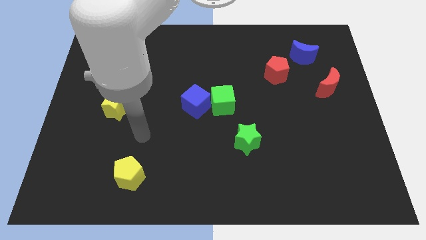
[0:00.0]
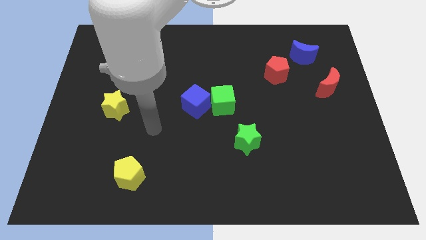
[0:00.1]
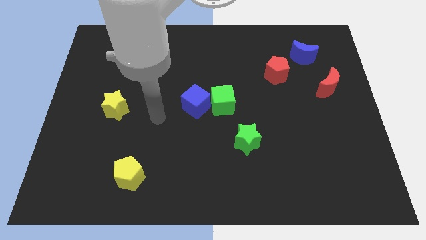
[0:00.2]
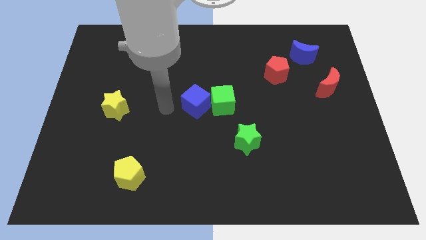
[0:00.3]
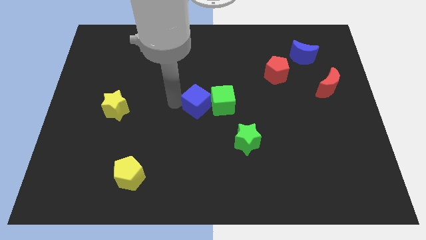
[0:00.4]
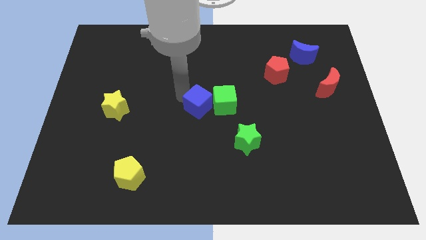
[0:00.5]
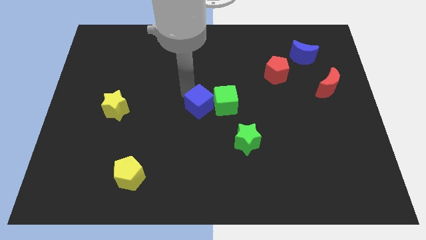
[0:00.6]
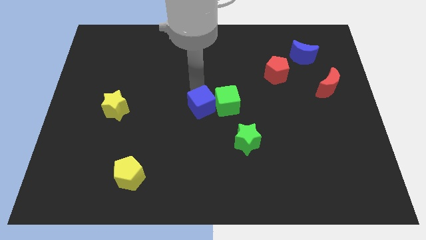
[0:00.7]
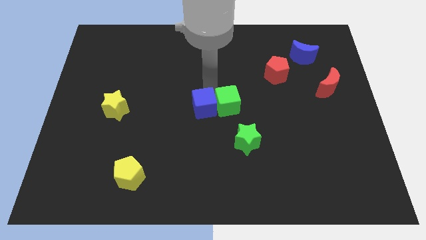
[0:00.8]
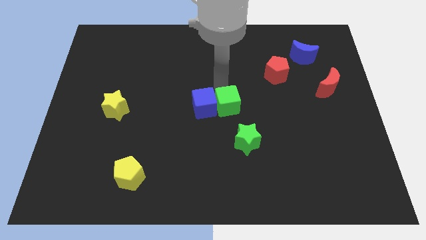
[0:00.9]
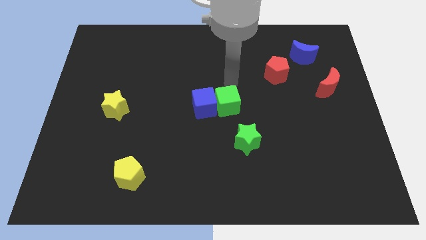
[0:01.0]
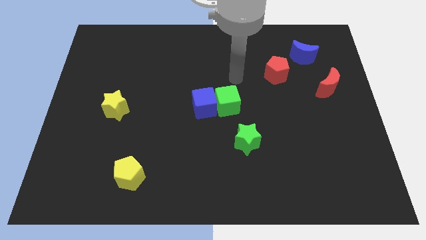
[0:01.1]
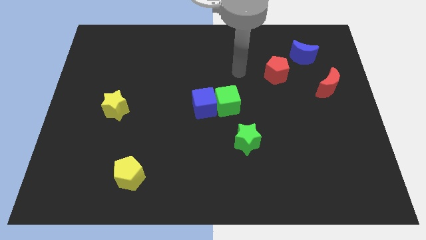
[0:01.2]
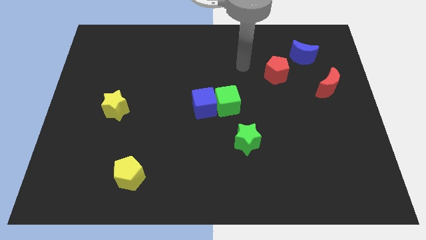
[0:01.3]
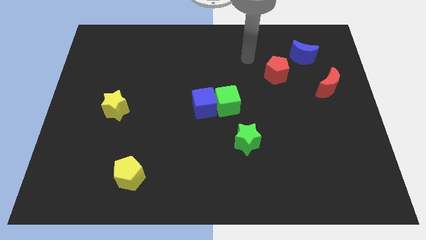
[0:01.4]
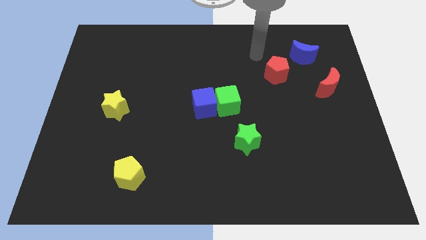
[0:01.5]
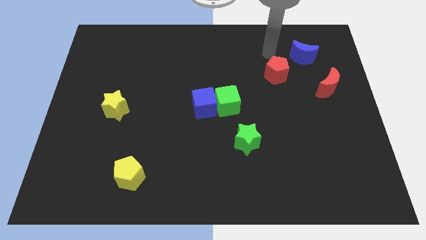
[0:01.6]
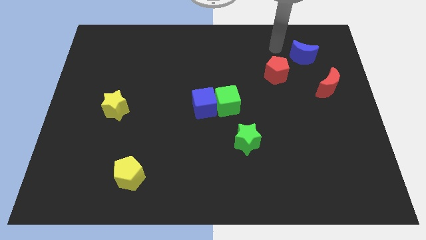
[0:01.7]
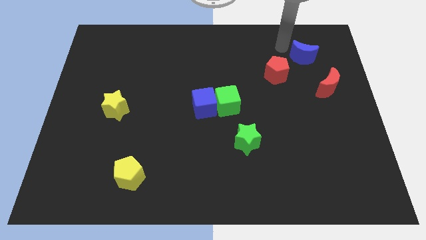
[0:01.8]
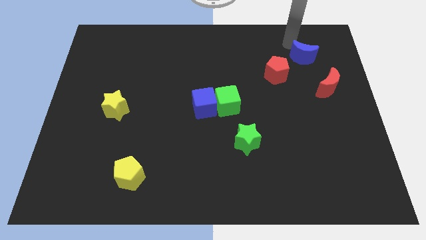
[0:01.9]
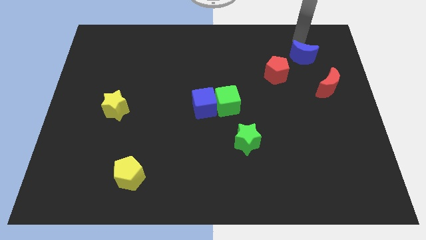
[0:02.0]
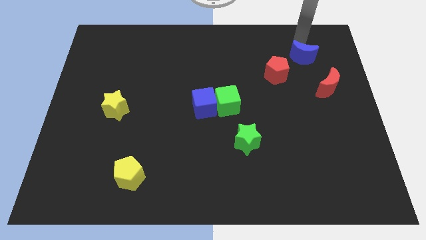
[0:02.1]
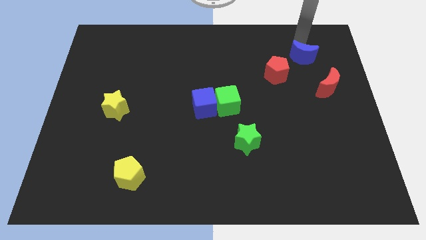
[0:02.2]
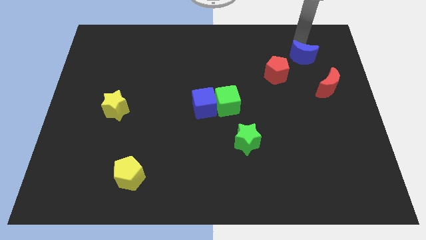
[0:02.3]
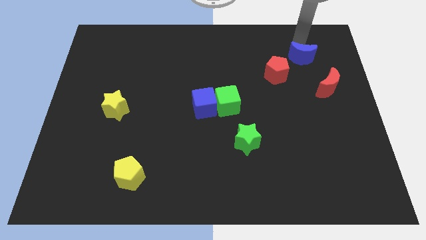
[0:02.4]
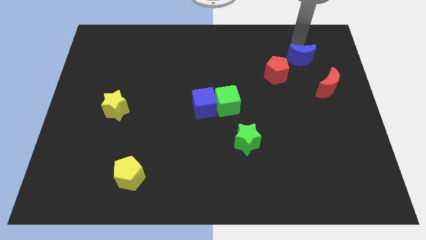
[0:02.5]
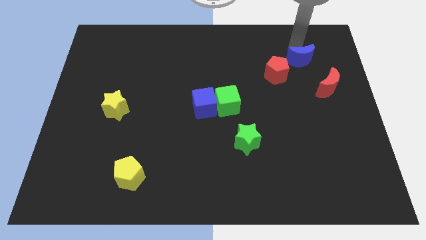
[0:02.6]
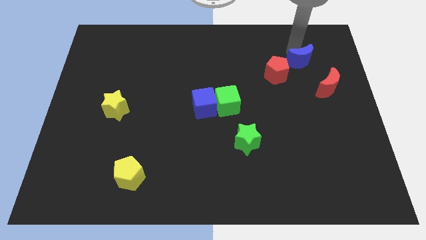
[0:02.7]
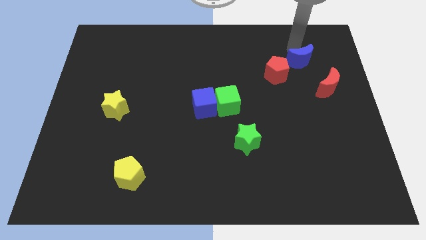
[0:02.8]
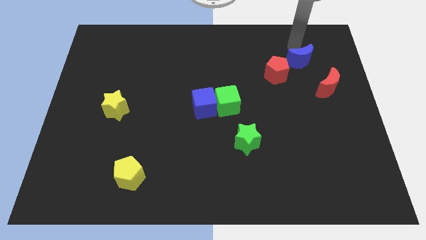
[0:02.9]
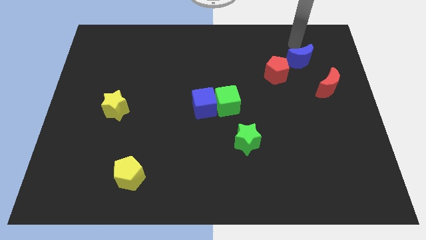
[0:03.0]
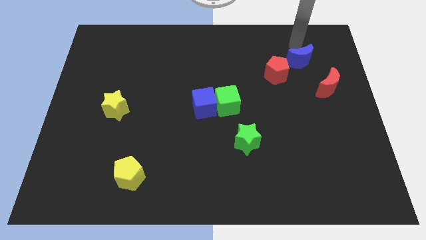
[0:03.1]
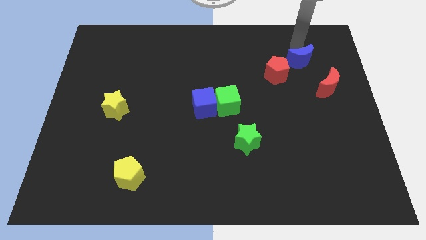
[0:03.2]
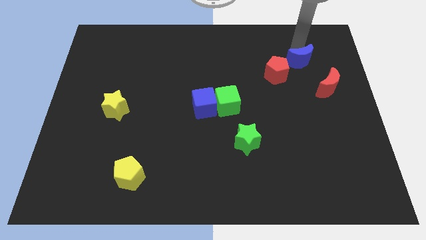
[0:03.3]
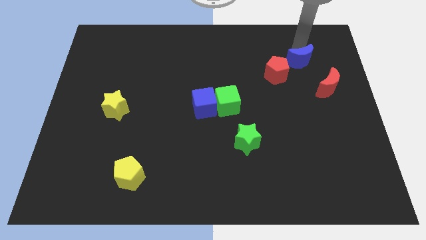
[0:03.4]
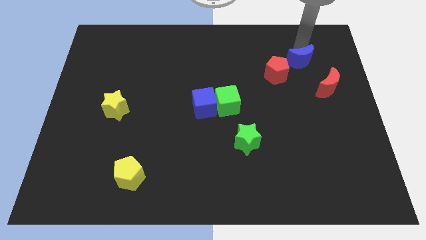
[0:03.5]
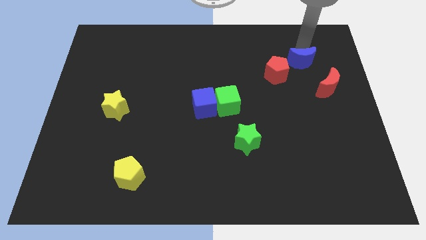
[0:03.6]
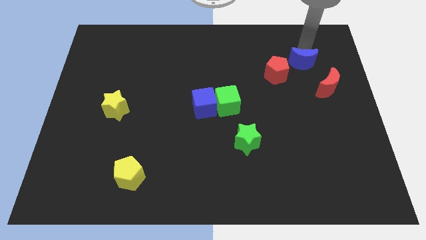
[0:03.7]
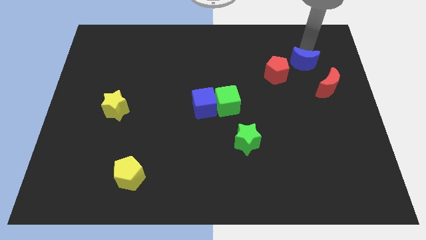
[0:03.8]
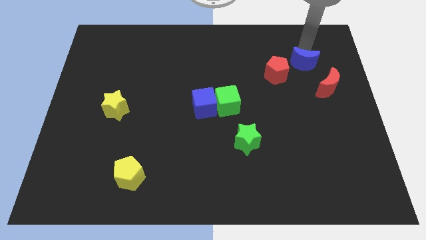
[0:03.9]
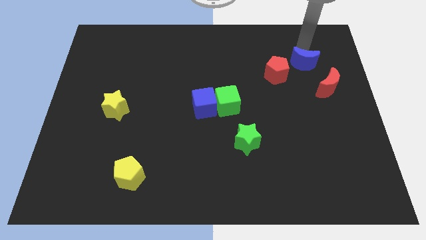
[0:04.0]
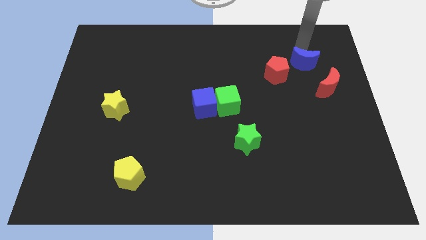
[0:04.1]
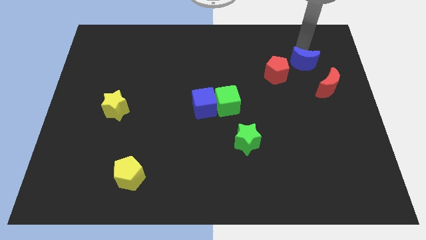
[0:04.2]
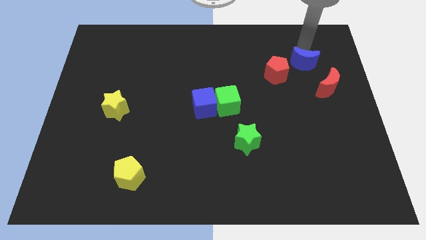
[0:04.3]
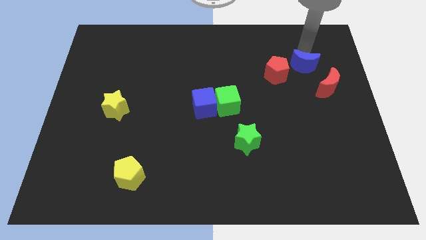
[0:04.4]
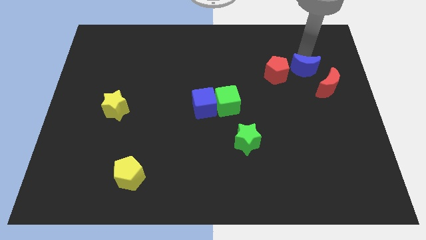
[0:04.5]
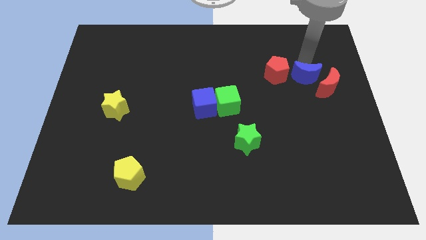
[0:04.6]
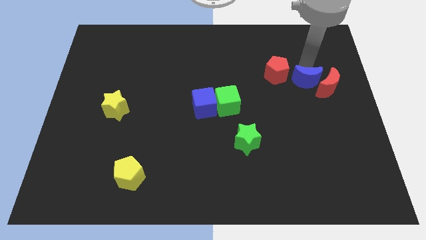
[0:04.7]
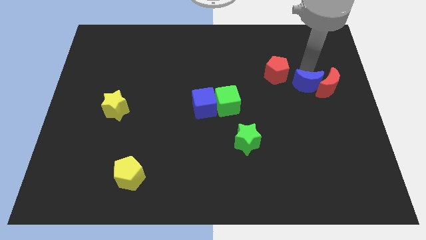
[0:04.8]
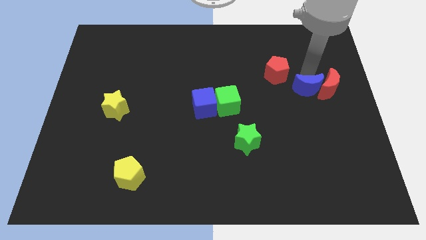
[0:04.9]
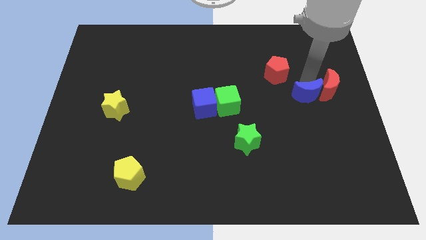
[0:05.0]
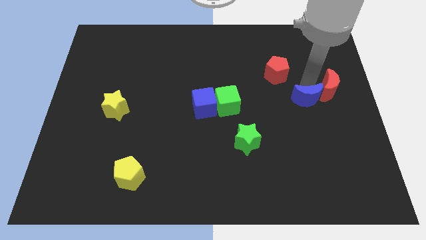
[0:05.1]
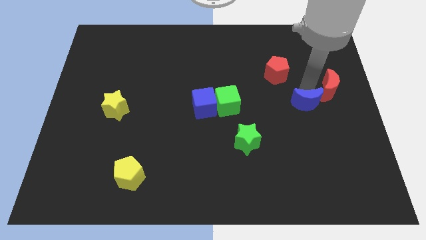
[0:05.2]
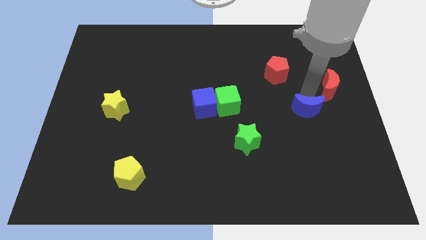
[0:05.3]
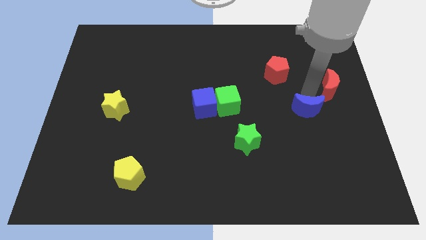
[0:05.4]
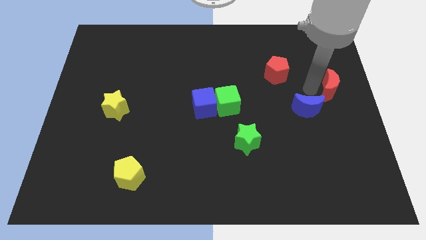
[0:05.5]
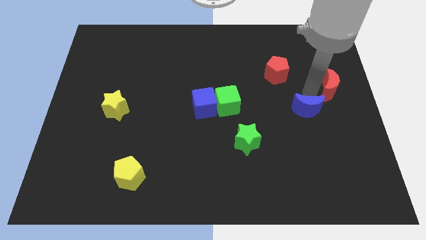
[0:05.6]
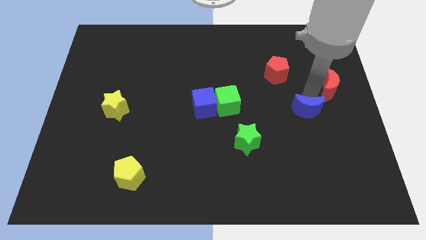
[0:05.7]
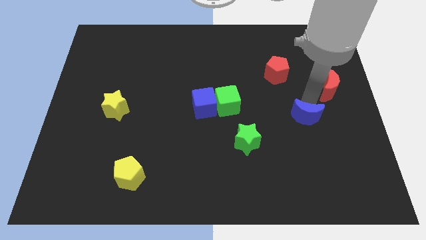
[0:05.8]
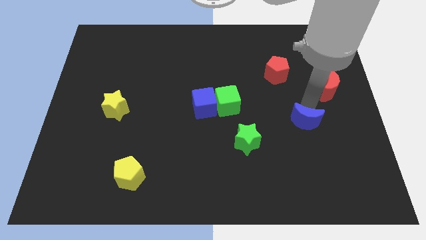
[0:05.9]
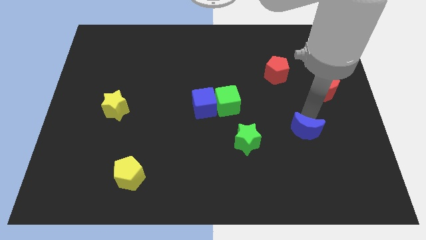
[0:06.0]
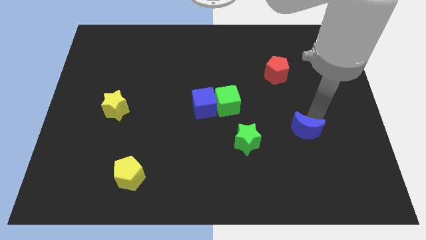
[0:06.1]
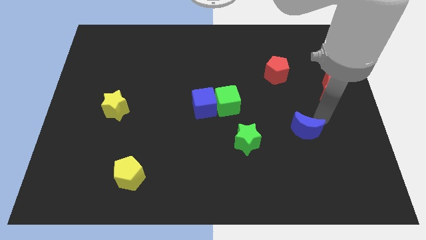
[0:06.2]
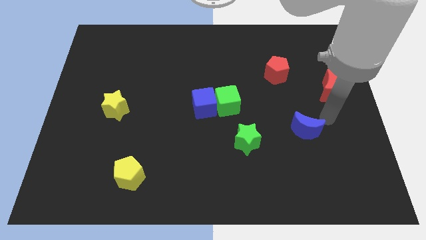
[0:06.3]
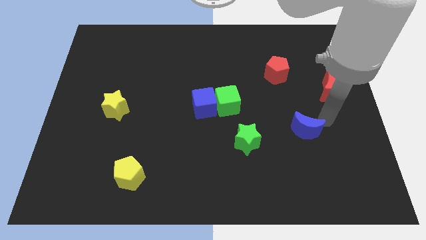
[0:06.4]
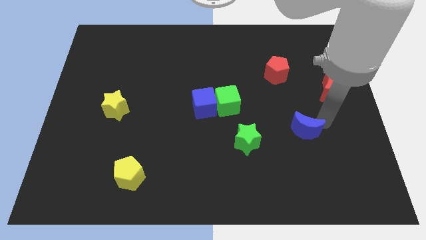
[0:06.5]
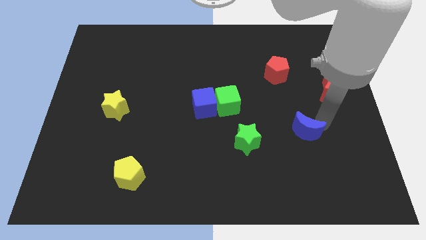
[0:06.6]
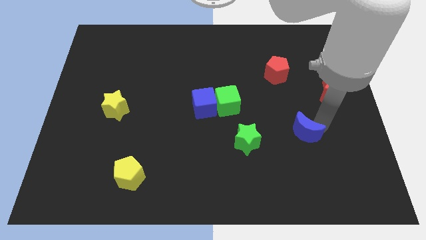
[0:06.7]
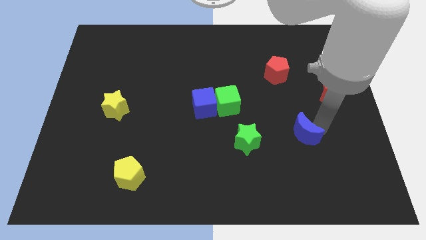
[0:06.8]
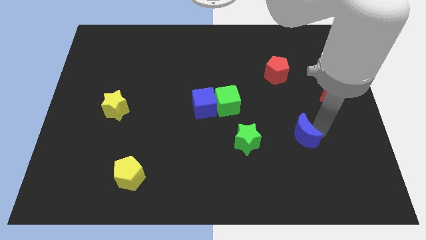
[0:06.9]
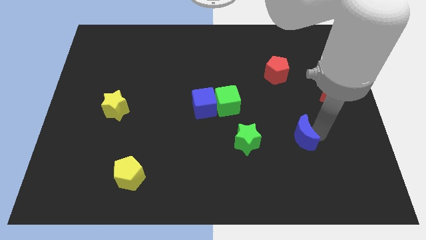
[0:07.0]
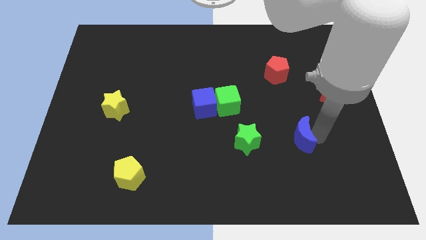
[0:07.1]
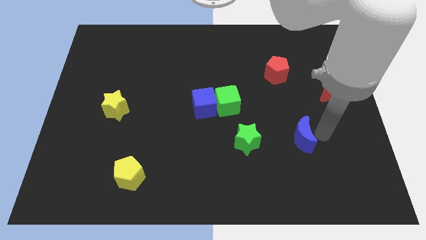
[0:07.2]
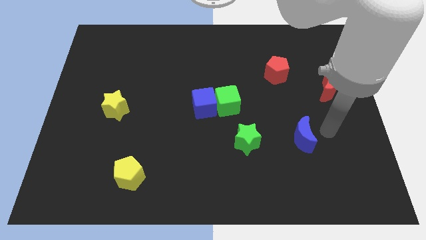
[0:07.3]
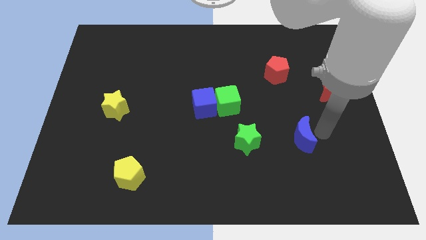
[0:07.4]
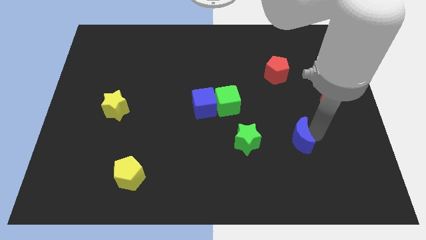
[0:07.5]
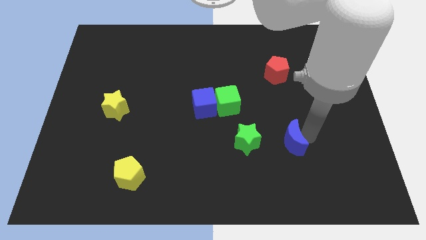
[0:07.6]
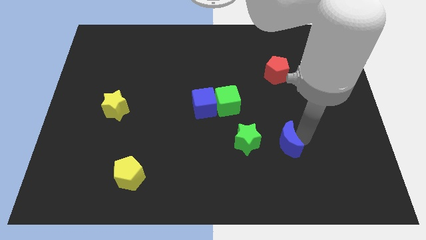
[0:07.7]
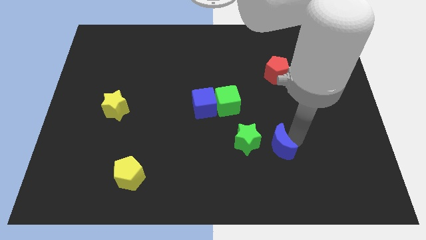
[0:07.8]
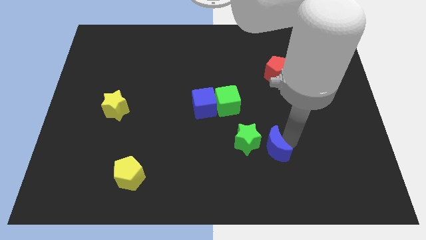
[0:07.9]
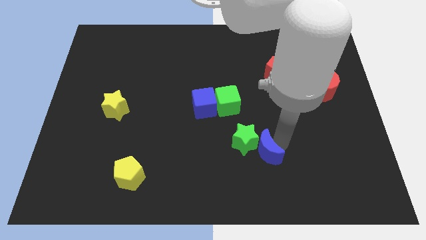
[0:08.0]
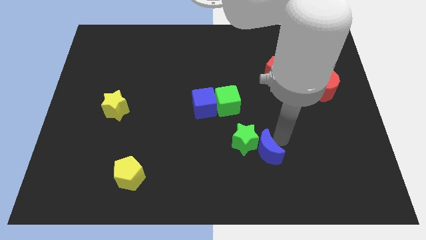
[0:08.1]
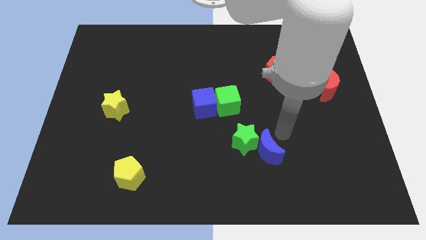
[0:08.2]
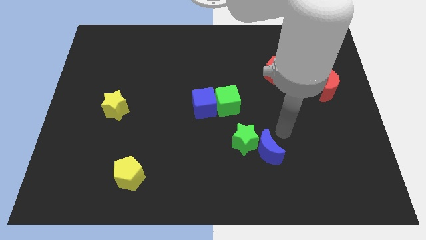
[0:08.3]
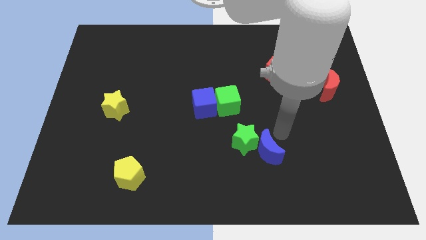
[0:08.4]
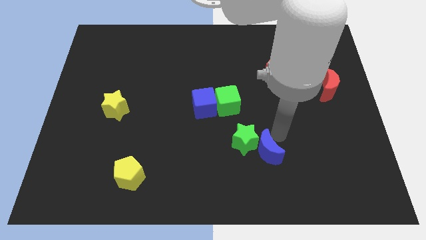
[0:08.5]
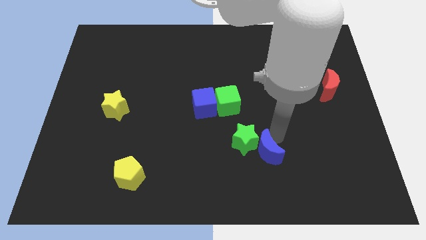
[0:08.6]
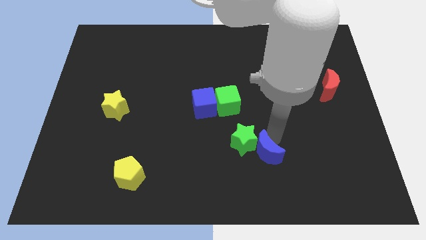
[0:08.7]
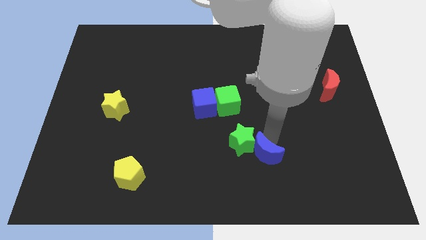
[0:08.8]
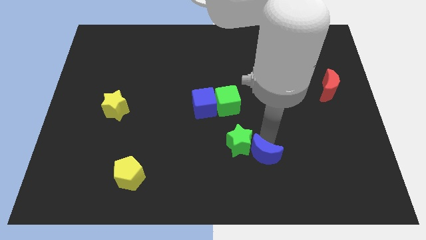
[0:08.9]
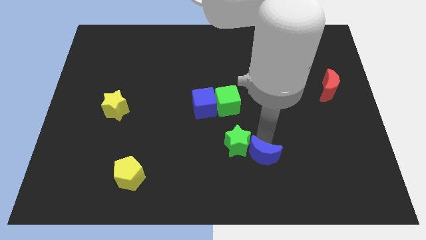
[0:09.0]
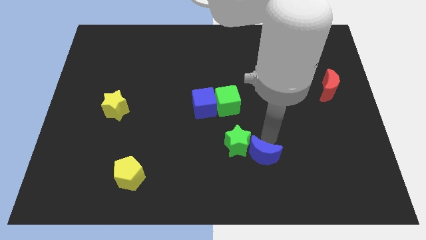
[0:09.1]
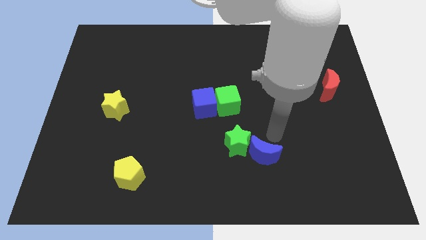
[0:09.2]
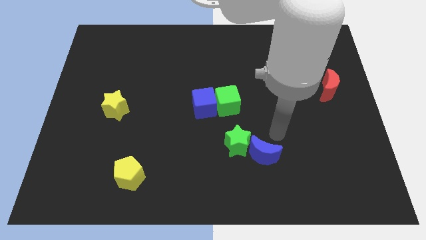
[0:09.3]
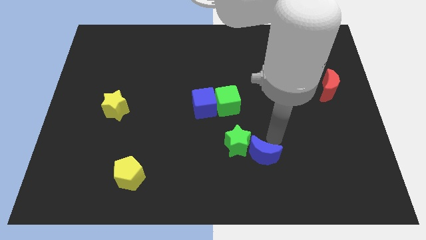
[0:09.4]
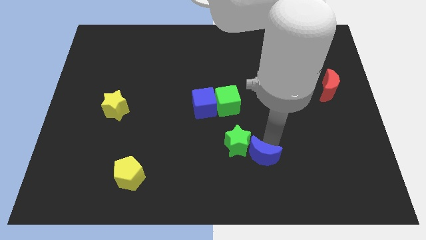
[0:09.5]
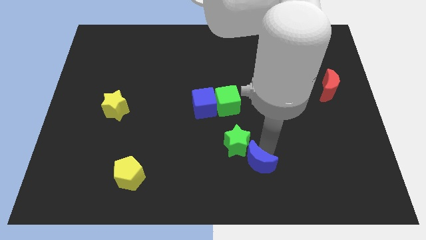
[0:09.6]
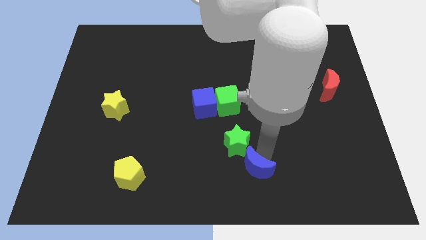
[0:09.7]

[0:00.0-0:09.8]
slide the blue moon to the bottom
